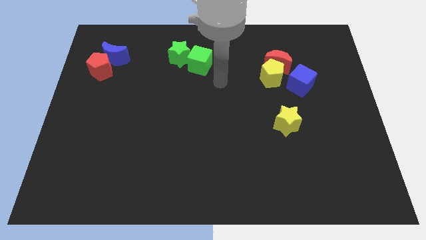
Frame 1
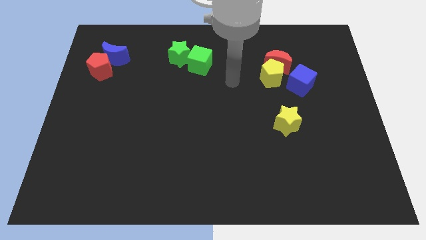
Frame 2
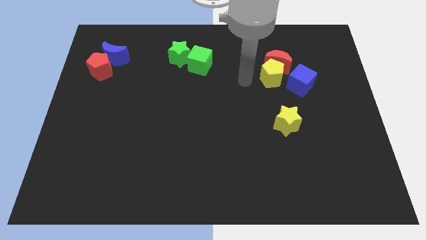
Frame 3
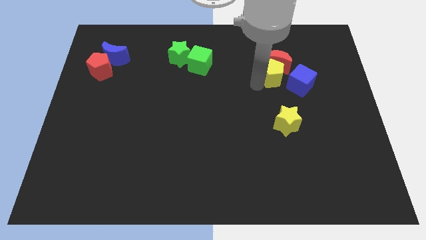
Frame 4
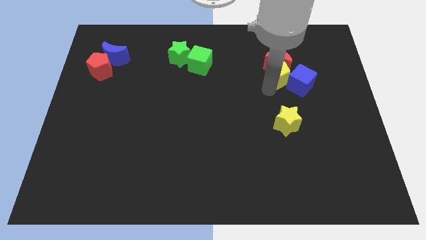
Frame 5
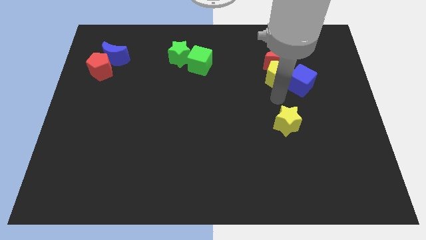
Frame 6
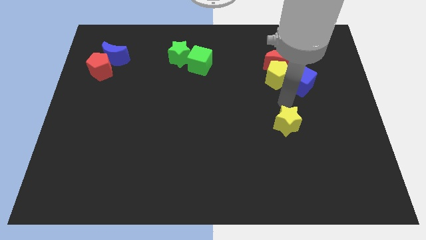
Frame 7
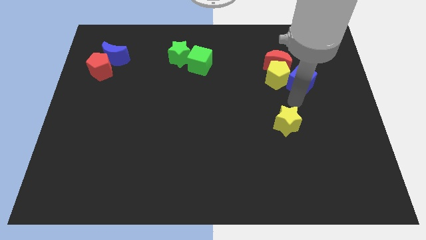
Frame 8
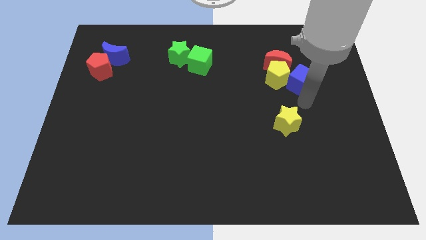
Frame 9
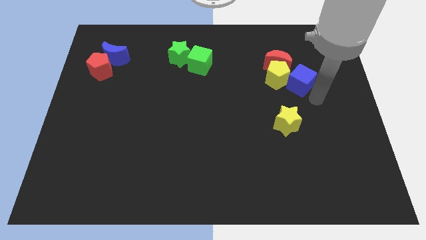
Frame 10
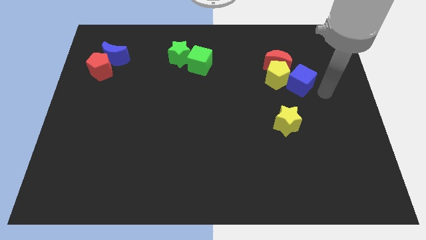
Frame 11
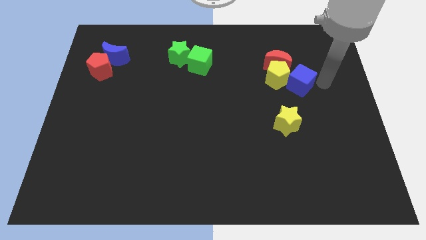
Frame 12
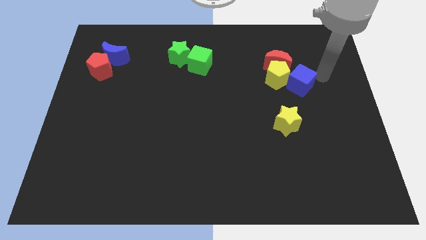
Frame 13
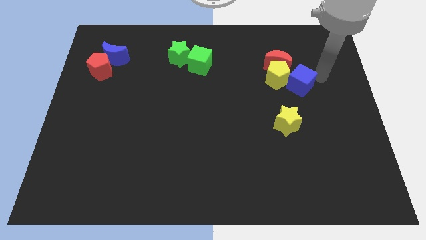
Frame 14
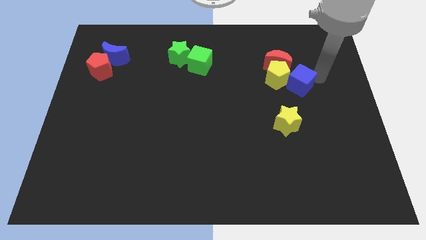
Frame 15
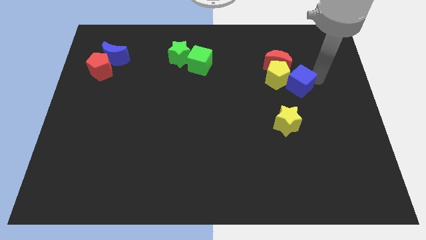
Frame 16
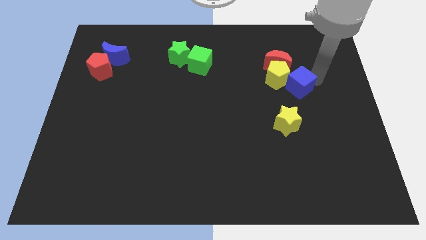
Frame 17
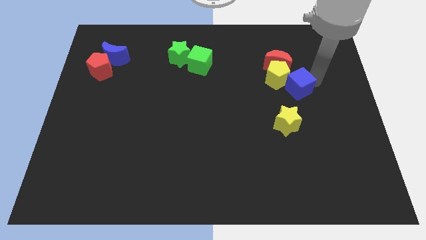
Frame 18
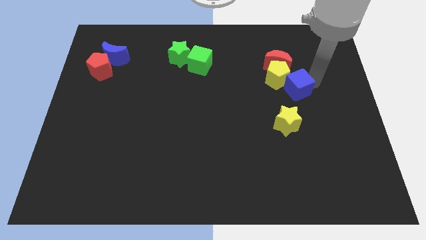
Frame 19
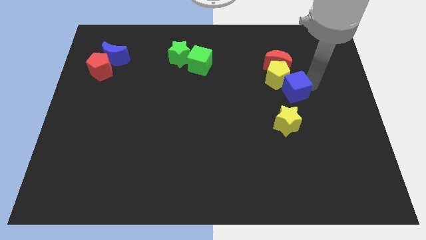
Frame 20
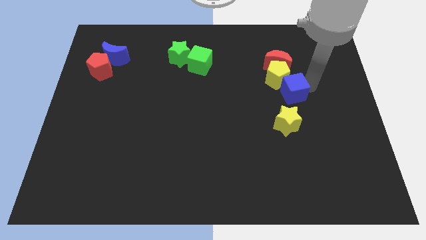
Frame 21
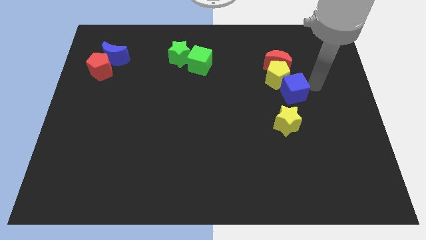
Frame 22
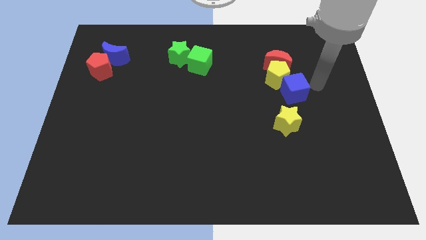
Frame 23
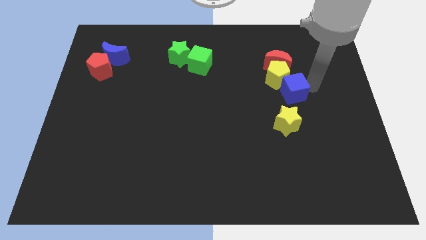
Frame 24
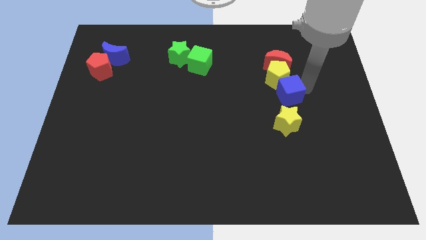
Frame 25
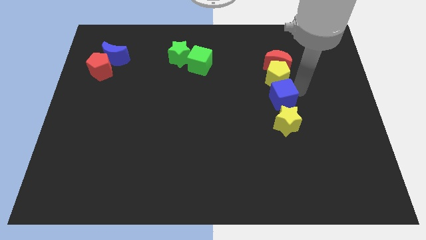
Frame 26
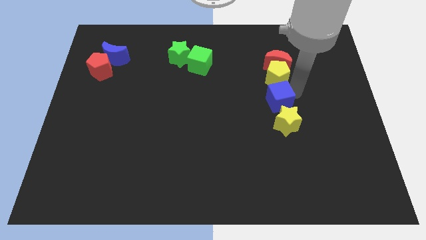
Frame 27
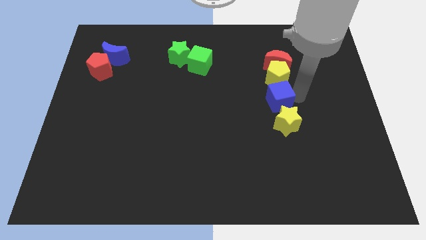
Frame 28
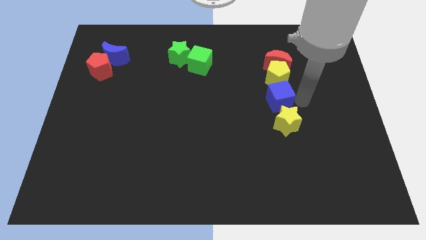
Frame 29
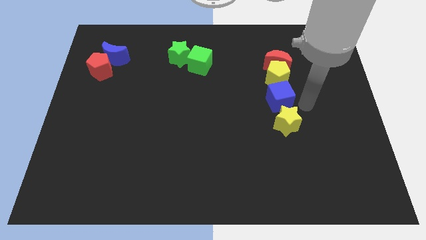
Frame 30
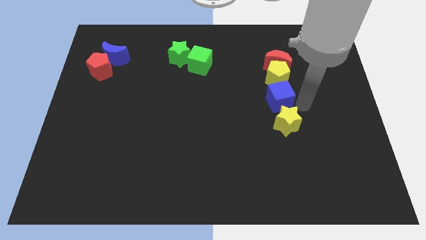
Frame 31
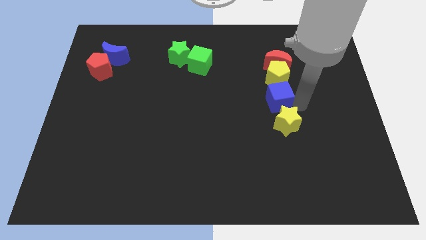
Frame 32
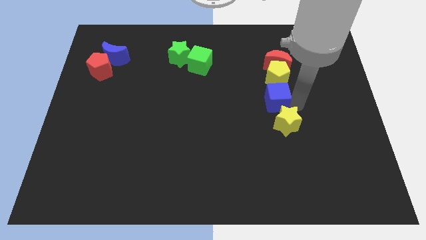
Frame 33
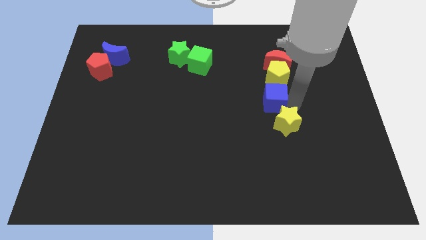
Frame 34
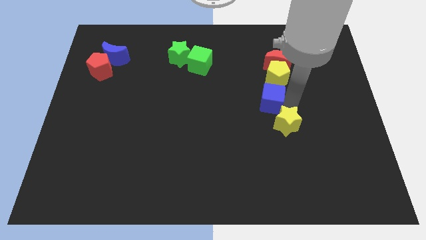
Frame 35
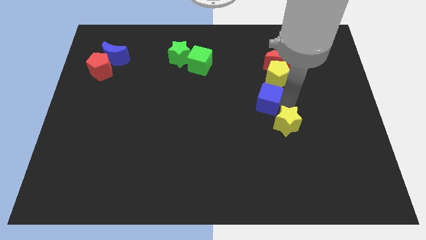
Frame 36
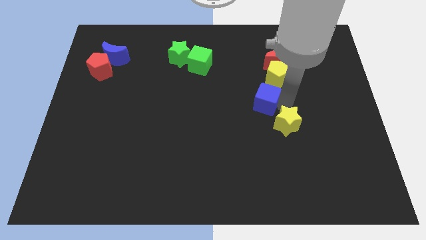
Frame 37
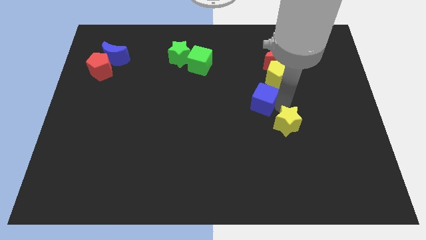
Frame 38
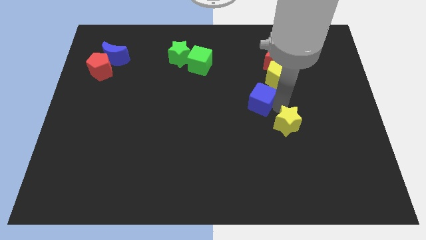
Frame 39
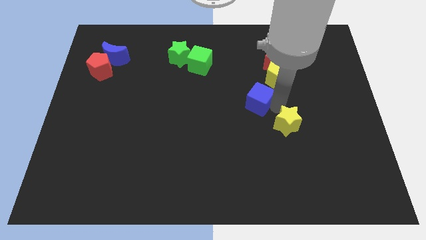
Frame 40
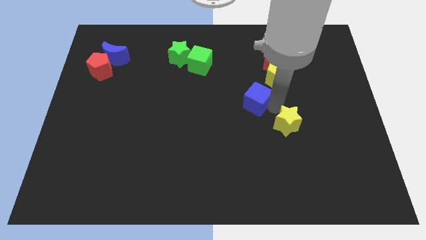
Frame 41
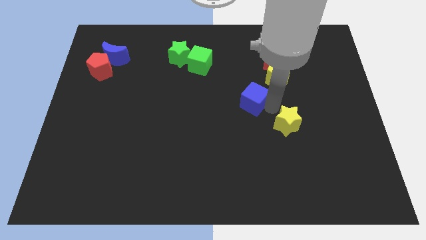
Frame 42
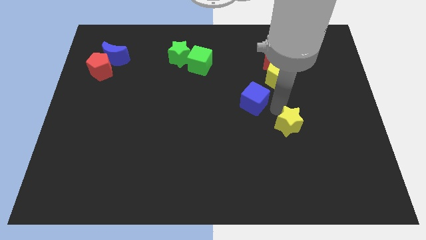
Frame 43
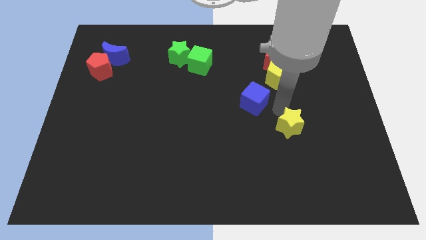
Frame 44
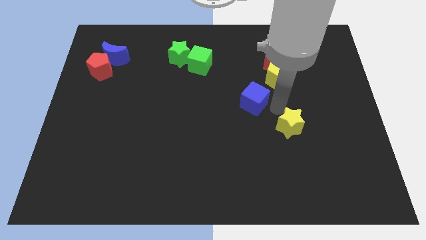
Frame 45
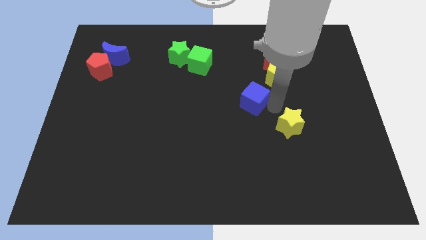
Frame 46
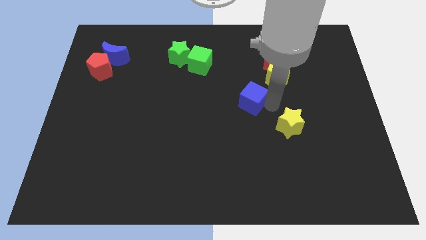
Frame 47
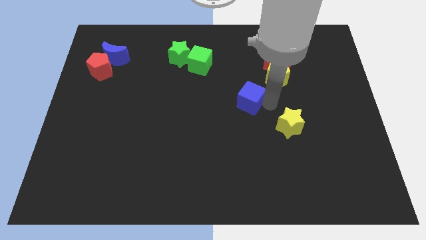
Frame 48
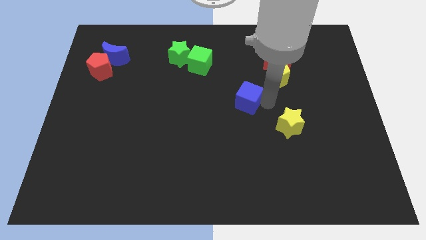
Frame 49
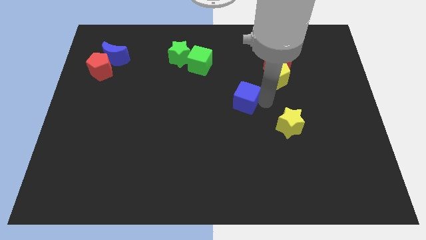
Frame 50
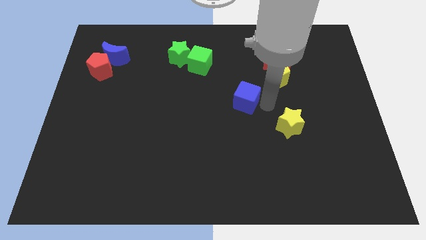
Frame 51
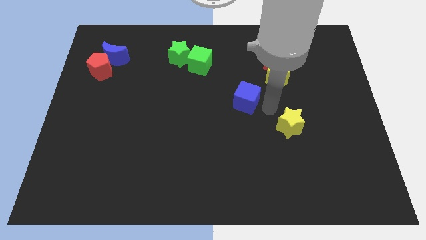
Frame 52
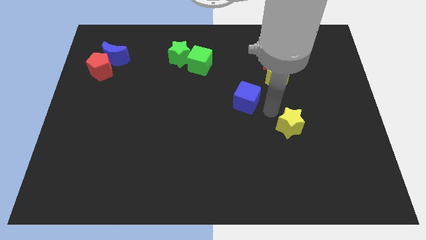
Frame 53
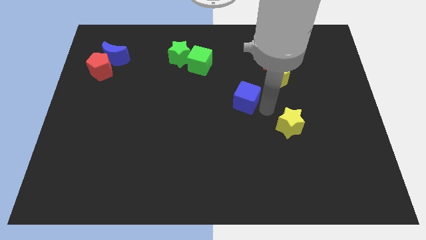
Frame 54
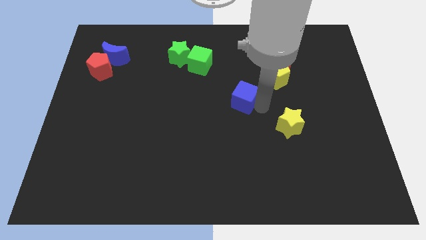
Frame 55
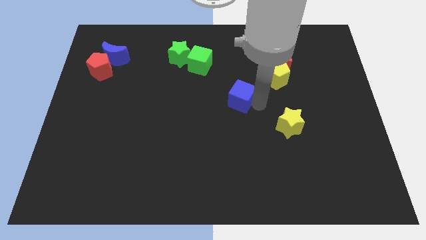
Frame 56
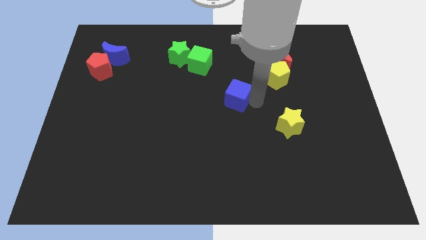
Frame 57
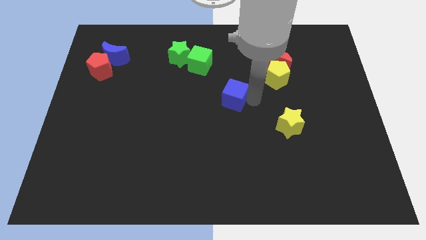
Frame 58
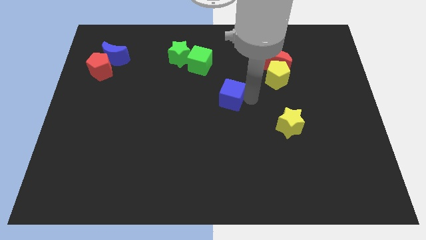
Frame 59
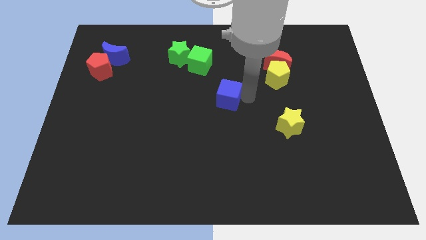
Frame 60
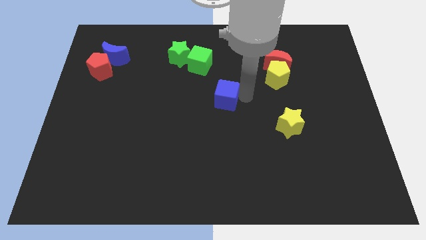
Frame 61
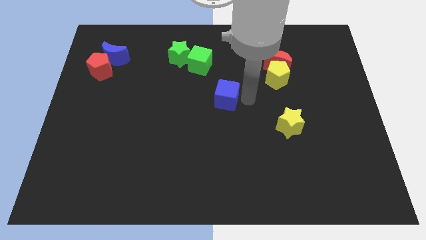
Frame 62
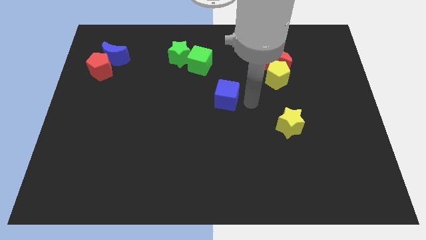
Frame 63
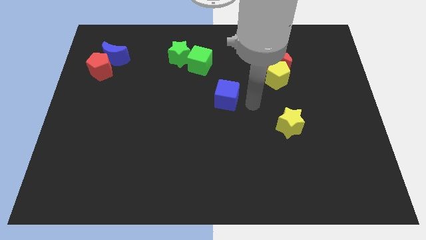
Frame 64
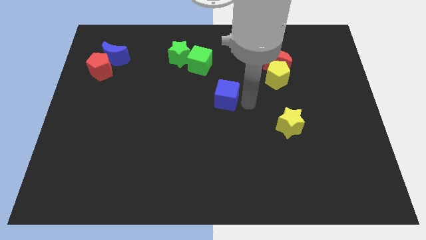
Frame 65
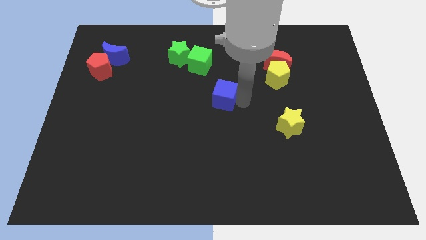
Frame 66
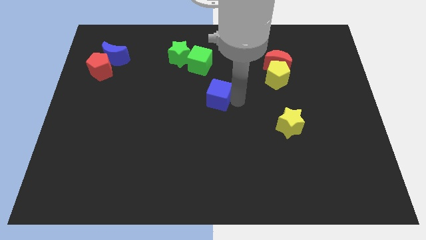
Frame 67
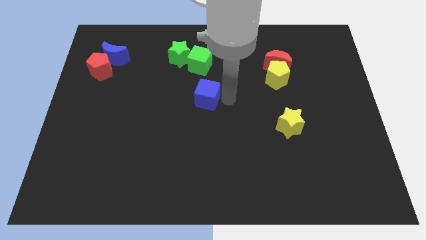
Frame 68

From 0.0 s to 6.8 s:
slide the blue cube to the left

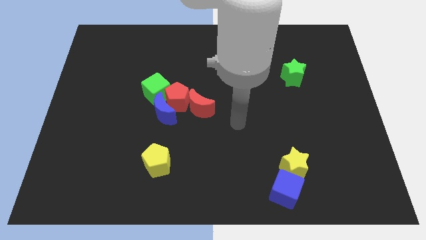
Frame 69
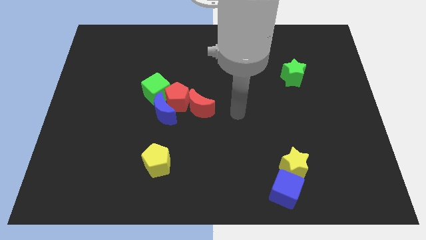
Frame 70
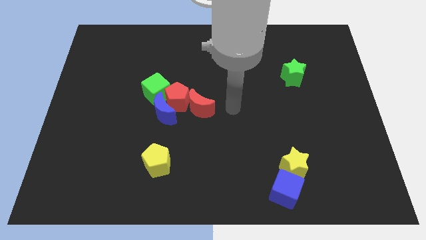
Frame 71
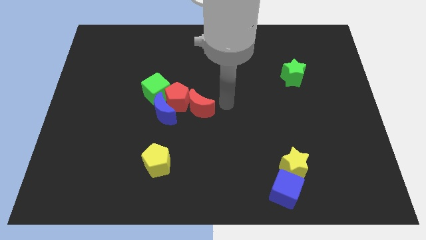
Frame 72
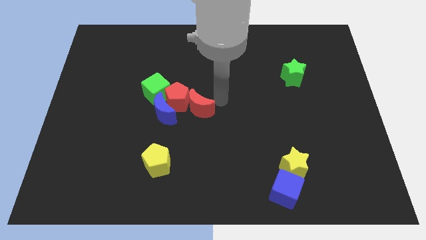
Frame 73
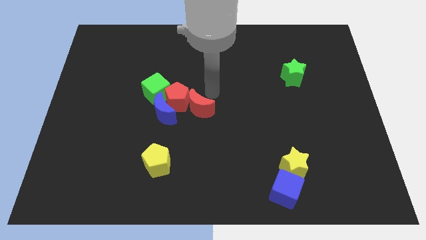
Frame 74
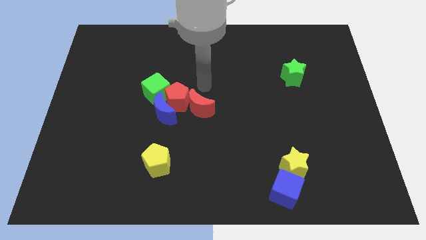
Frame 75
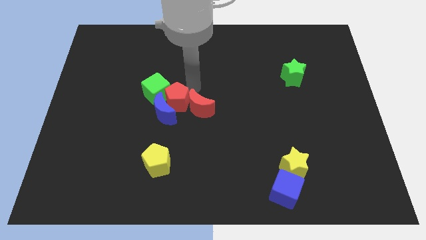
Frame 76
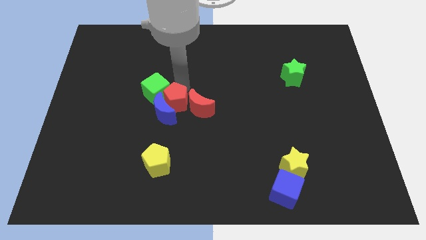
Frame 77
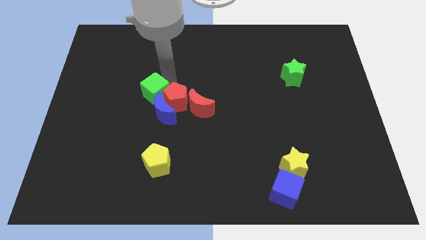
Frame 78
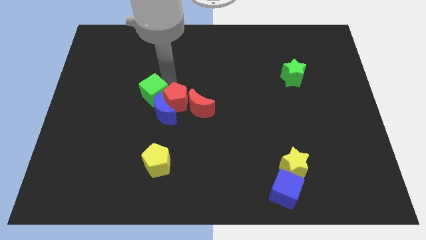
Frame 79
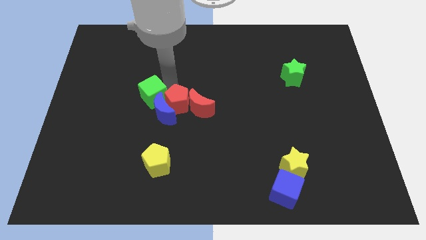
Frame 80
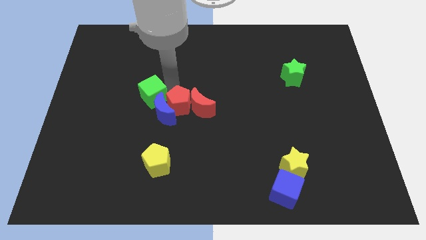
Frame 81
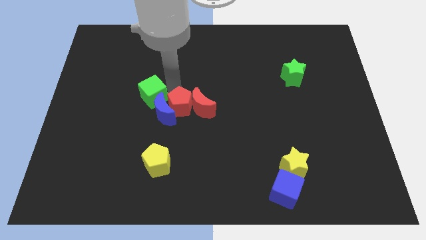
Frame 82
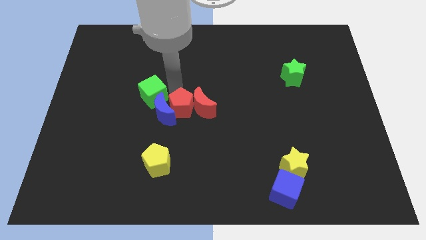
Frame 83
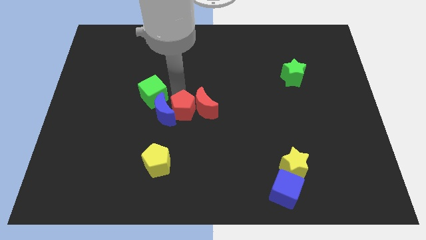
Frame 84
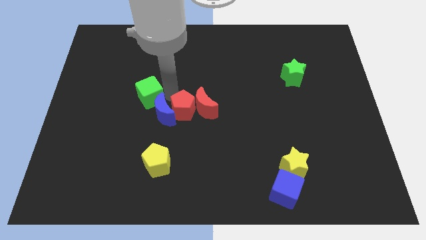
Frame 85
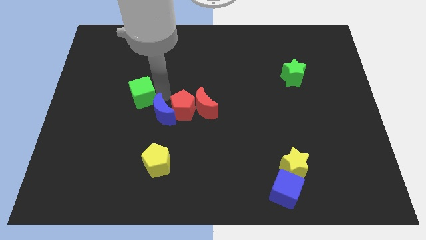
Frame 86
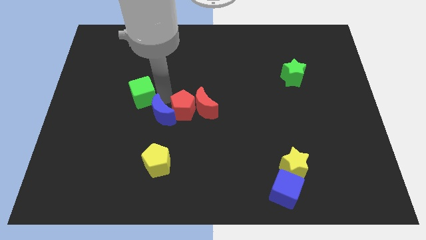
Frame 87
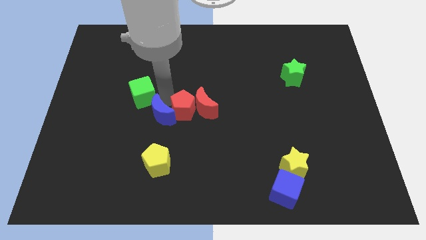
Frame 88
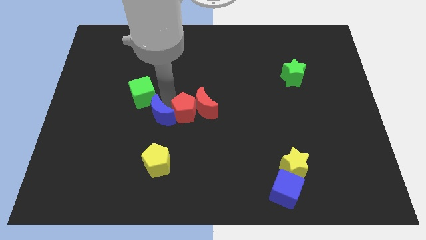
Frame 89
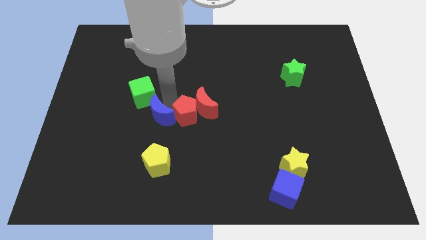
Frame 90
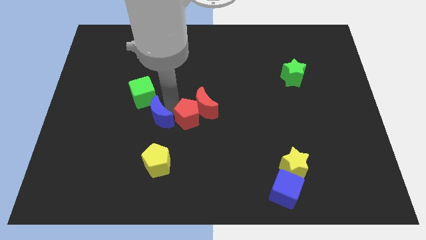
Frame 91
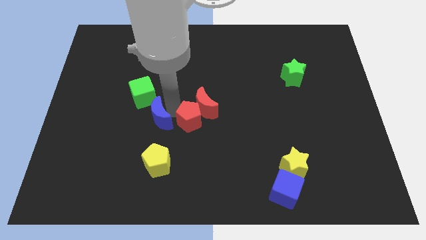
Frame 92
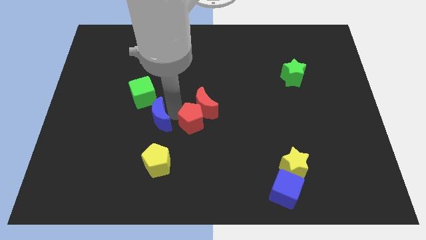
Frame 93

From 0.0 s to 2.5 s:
slightly slide the red pentagon diagonally down and to the right
